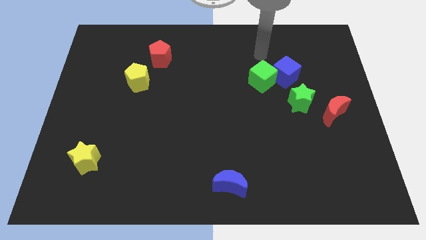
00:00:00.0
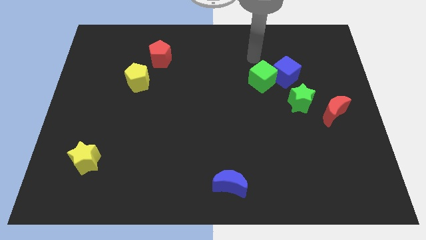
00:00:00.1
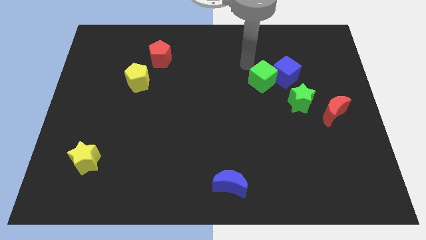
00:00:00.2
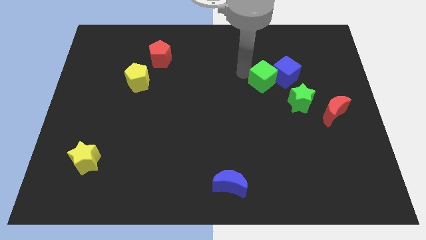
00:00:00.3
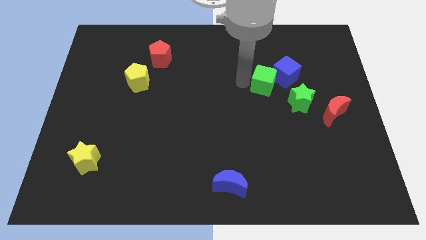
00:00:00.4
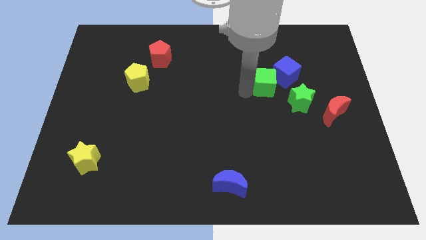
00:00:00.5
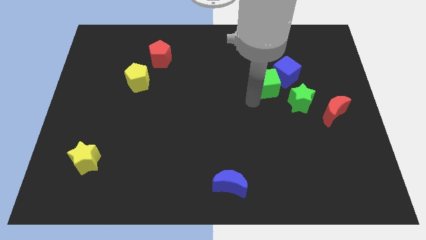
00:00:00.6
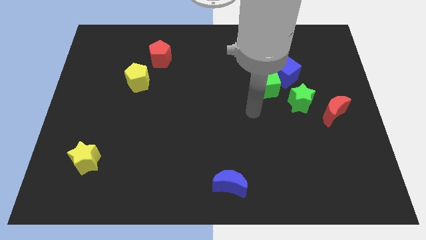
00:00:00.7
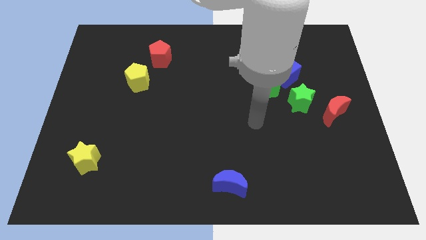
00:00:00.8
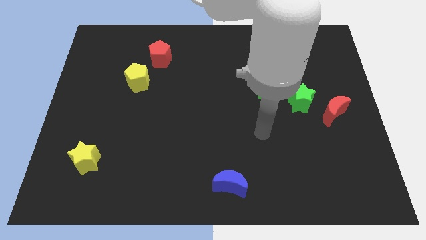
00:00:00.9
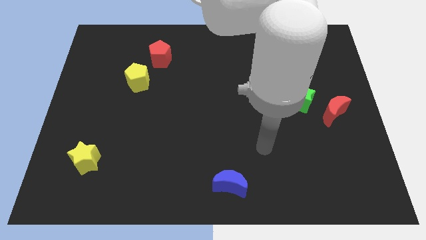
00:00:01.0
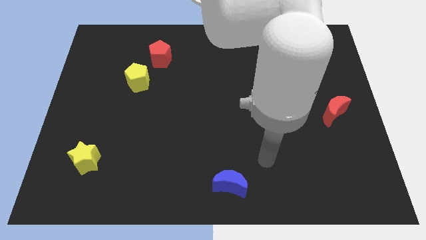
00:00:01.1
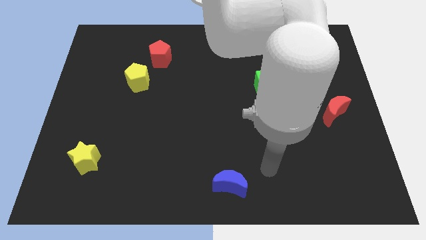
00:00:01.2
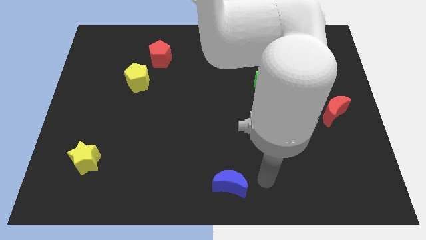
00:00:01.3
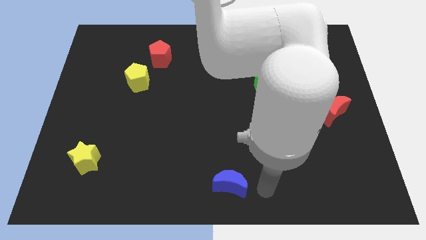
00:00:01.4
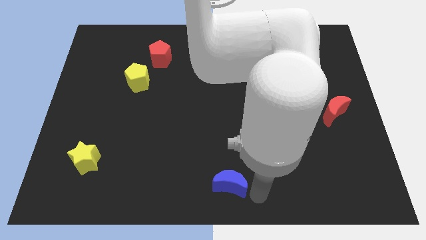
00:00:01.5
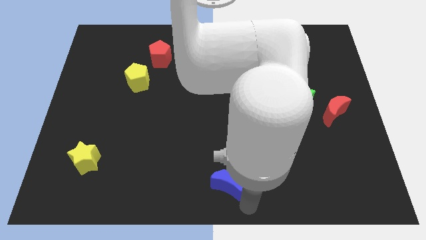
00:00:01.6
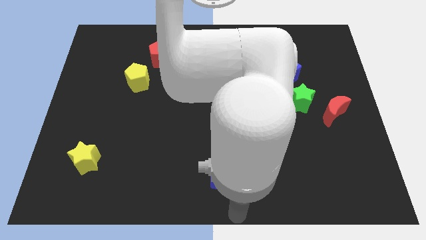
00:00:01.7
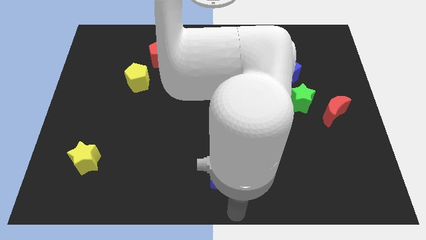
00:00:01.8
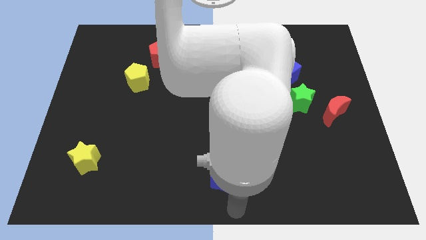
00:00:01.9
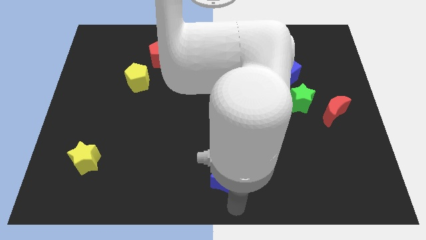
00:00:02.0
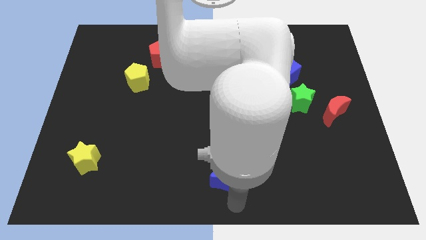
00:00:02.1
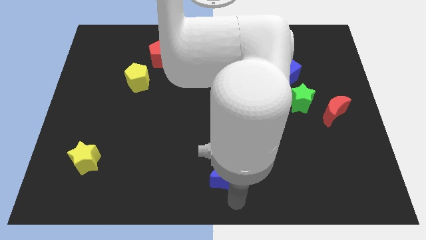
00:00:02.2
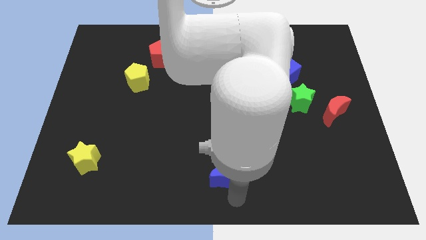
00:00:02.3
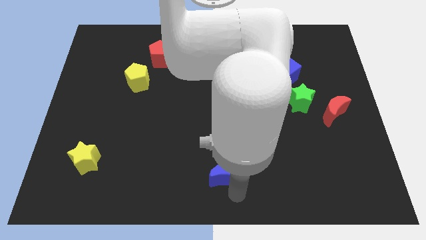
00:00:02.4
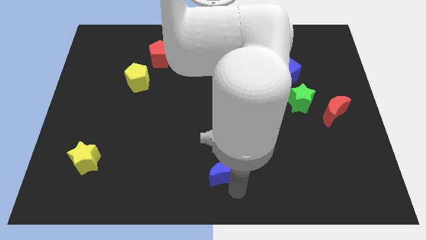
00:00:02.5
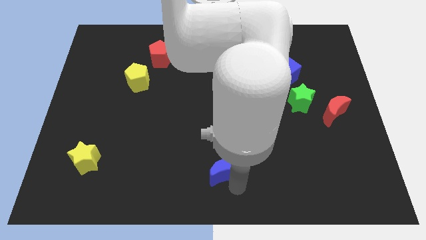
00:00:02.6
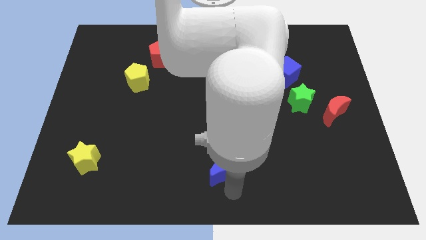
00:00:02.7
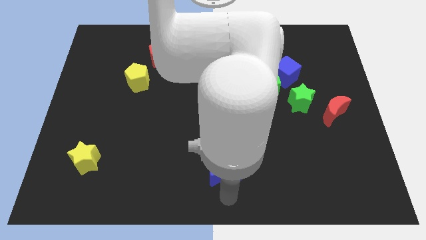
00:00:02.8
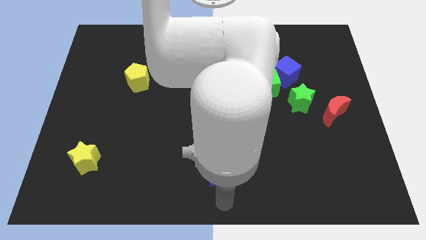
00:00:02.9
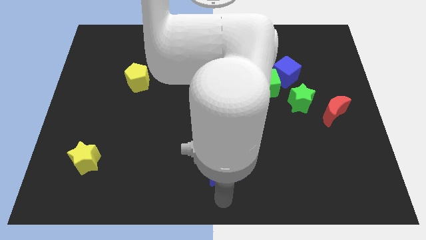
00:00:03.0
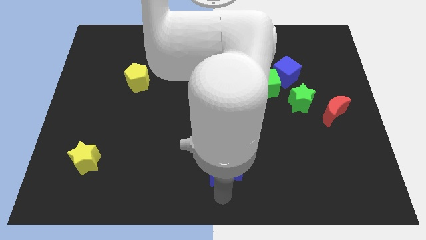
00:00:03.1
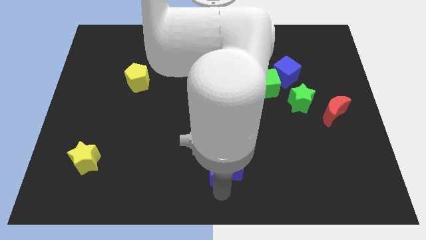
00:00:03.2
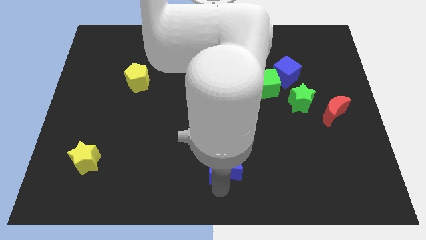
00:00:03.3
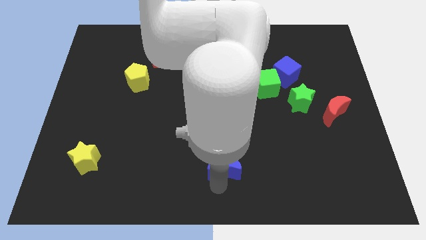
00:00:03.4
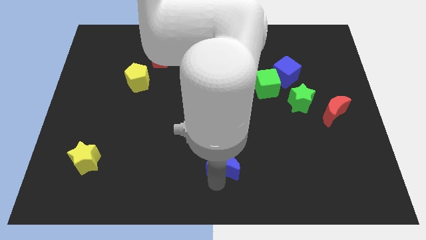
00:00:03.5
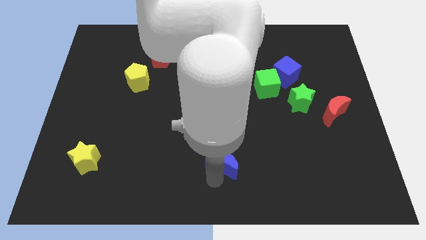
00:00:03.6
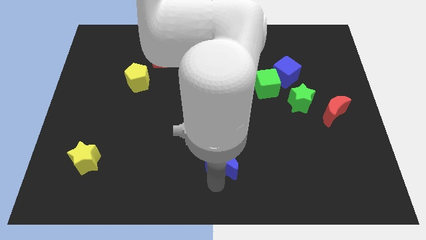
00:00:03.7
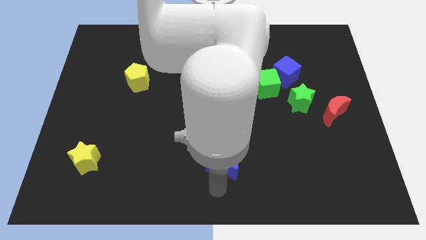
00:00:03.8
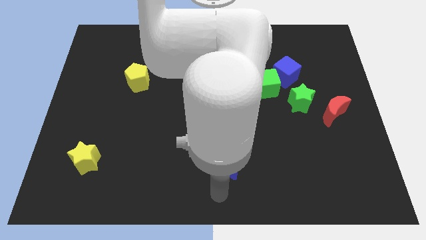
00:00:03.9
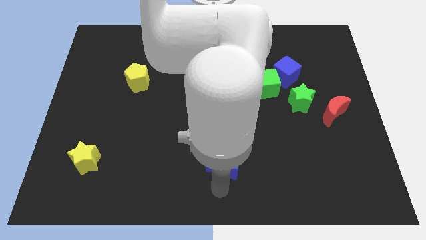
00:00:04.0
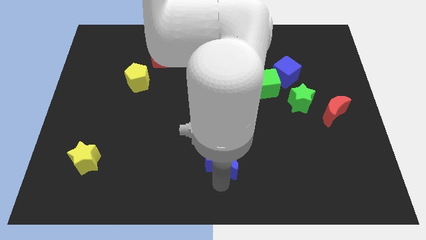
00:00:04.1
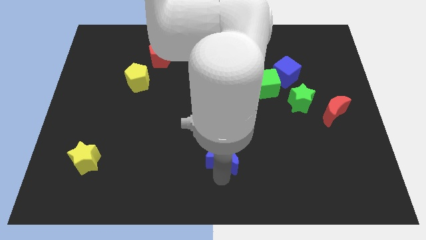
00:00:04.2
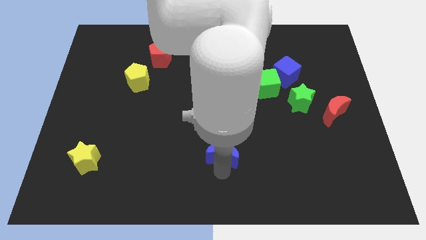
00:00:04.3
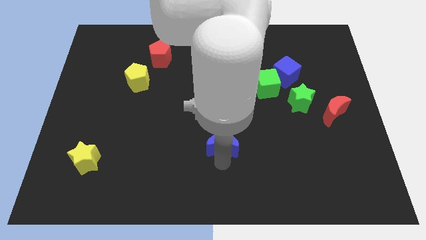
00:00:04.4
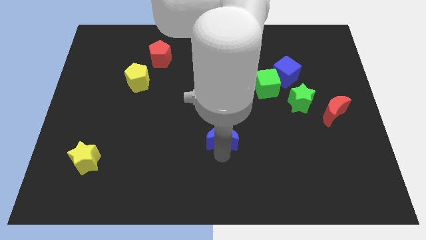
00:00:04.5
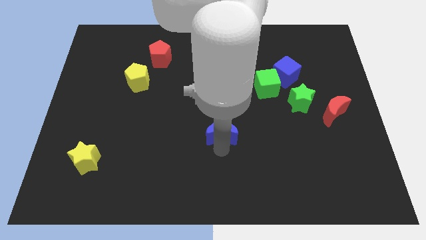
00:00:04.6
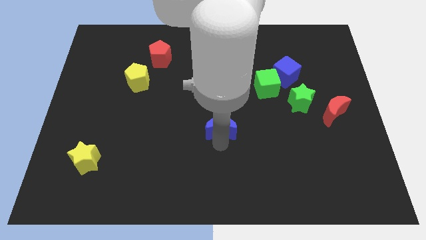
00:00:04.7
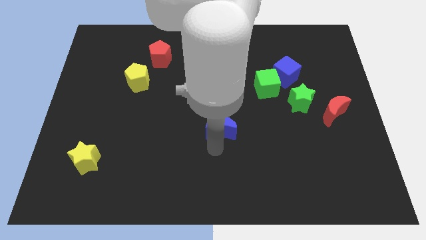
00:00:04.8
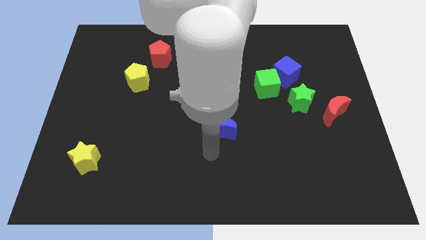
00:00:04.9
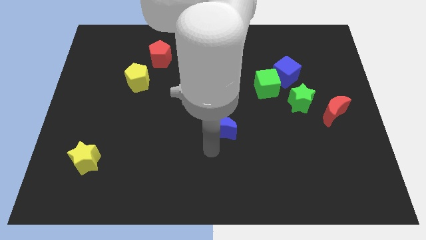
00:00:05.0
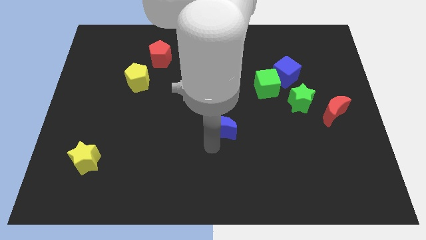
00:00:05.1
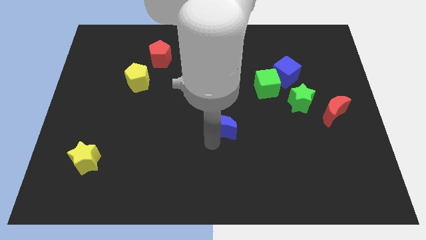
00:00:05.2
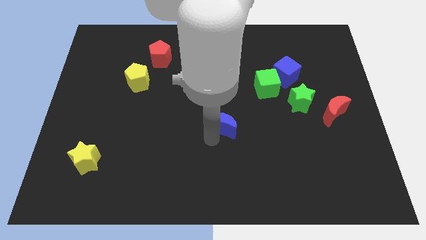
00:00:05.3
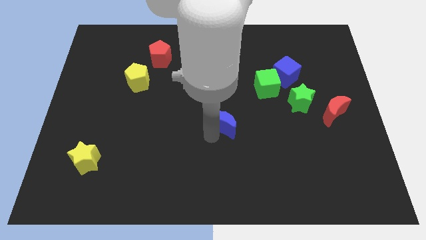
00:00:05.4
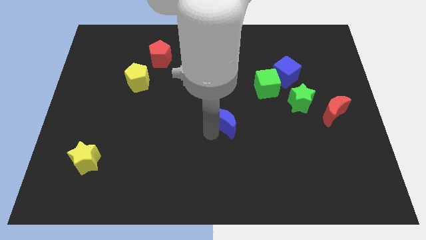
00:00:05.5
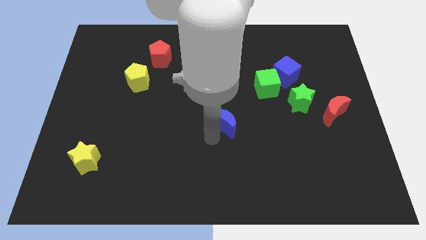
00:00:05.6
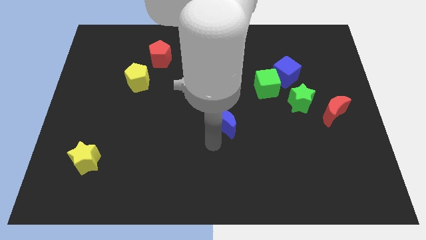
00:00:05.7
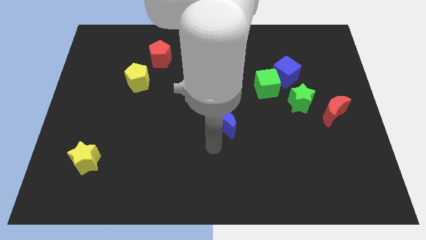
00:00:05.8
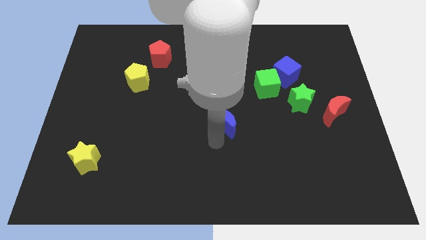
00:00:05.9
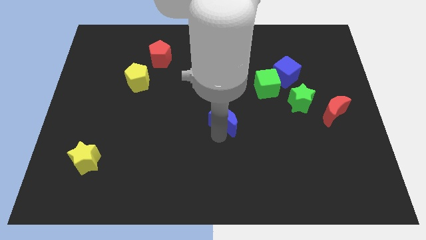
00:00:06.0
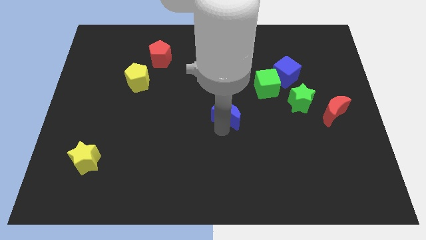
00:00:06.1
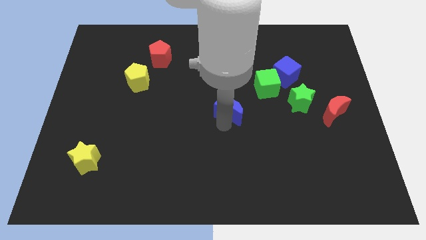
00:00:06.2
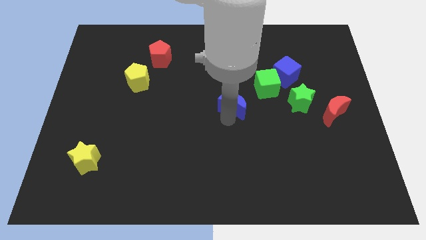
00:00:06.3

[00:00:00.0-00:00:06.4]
slide the blue moon upwards

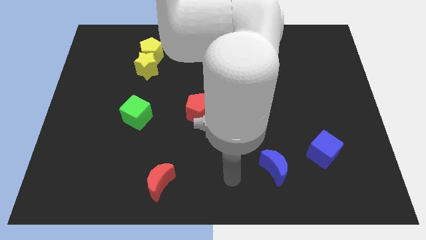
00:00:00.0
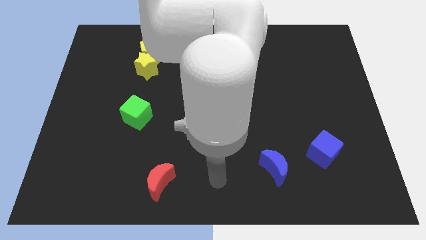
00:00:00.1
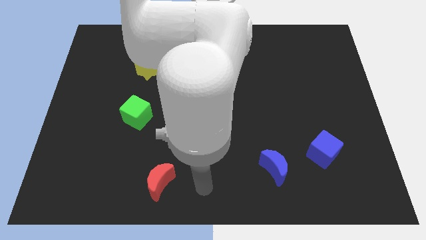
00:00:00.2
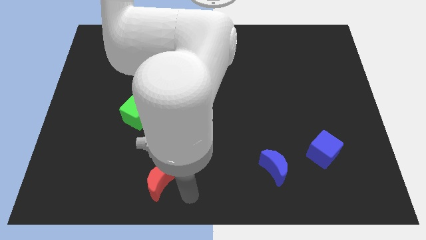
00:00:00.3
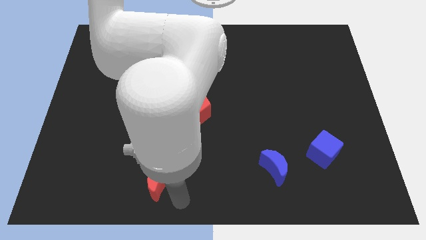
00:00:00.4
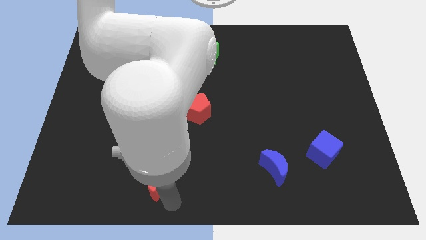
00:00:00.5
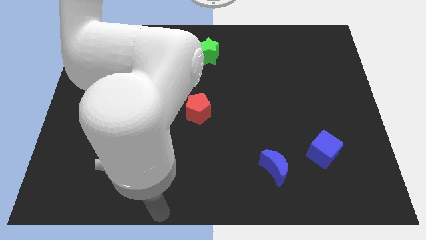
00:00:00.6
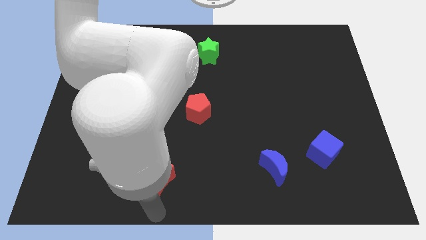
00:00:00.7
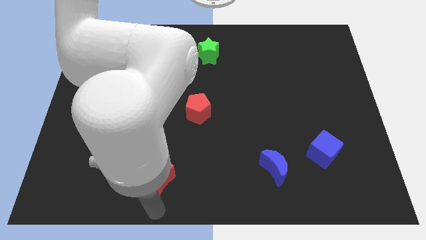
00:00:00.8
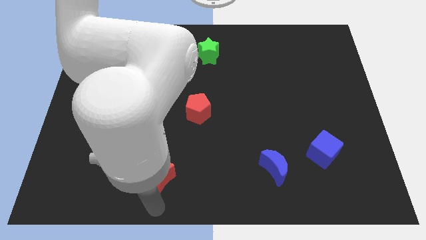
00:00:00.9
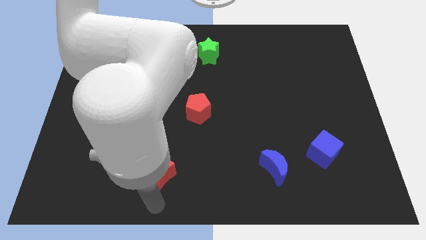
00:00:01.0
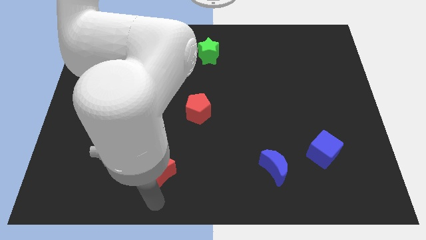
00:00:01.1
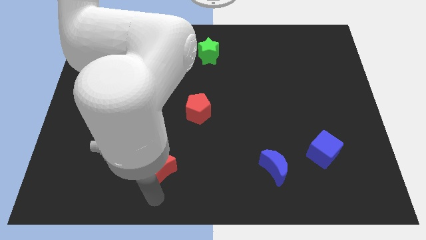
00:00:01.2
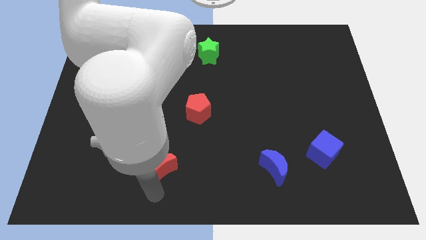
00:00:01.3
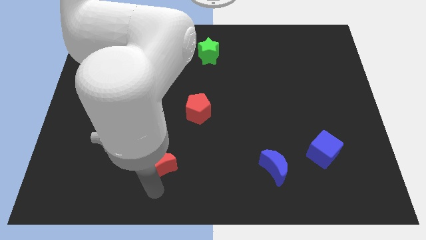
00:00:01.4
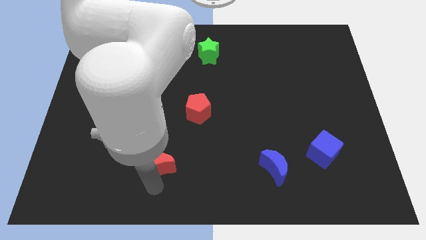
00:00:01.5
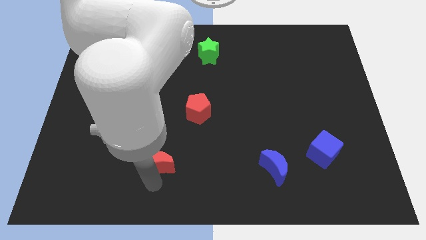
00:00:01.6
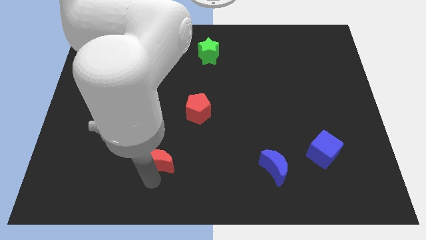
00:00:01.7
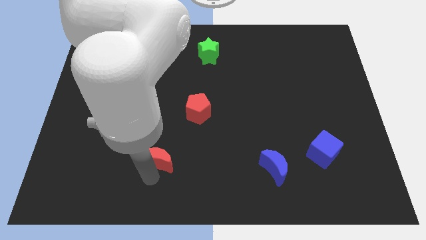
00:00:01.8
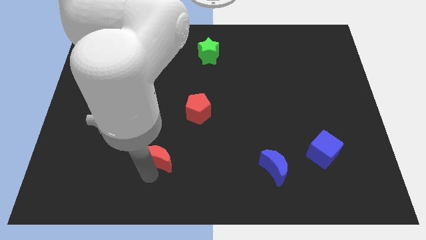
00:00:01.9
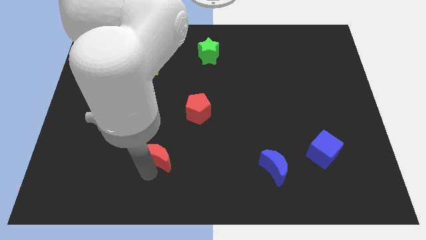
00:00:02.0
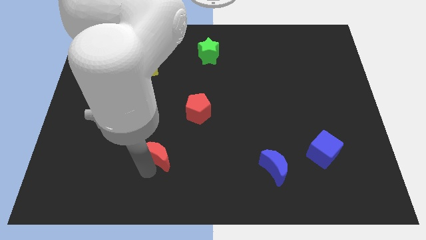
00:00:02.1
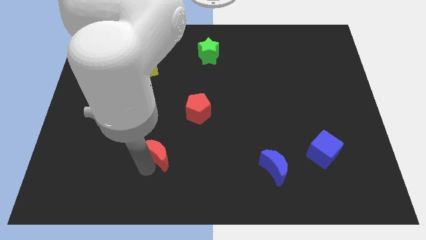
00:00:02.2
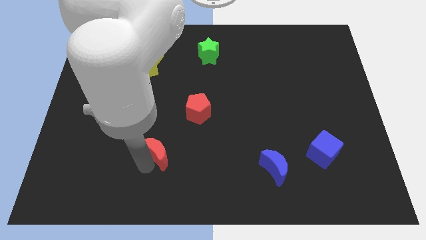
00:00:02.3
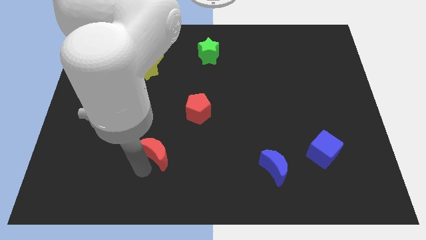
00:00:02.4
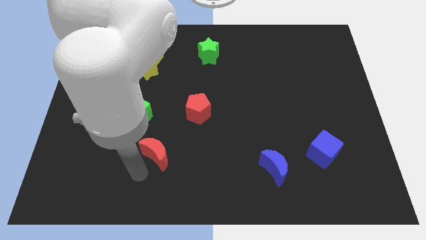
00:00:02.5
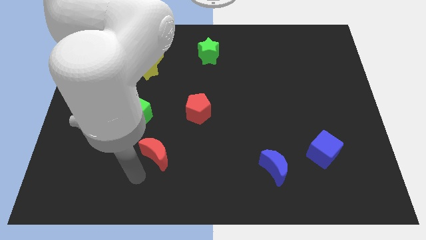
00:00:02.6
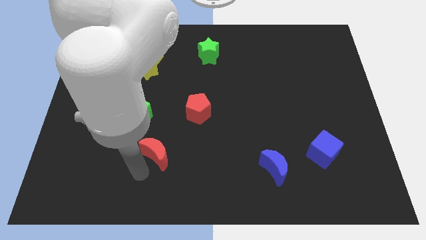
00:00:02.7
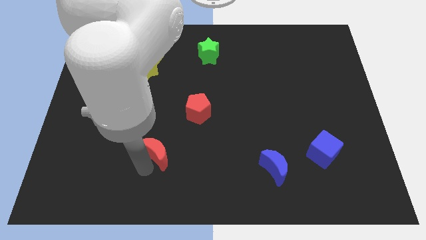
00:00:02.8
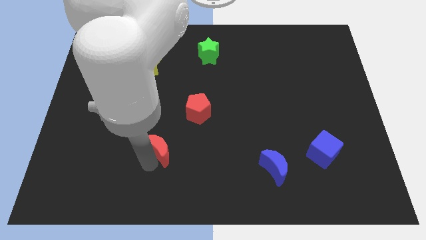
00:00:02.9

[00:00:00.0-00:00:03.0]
push the red moon up somewhat
